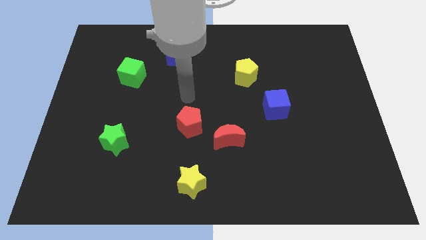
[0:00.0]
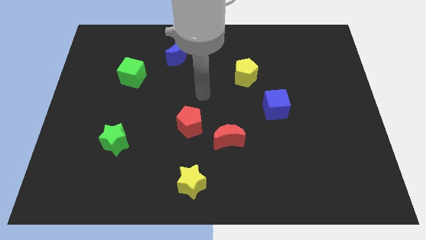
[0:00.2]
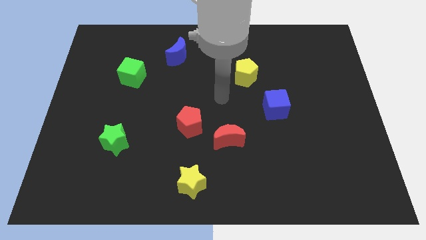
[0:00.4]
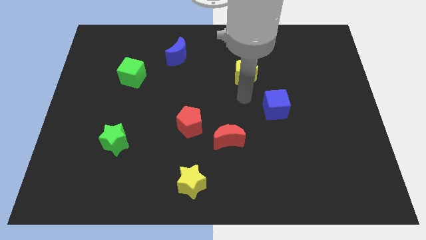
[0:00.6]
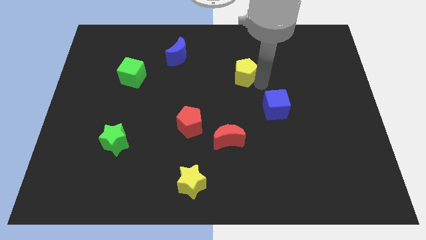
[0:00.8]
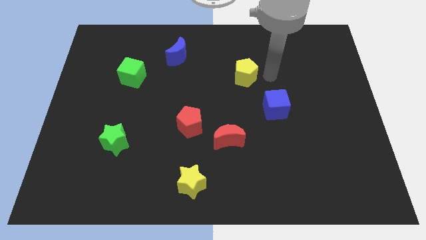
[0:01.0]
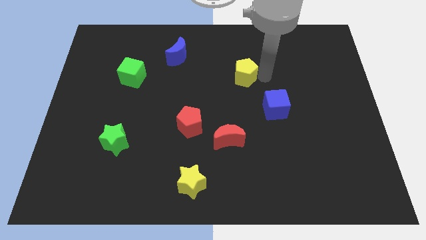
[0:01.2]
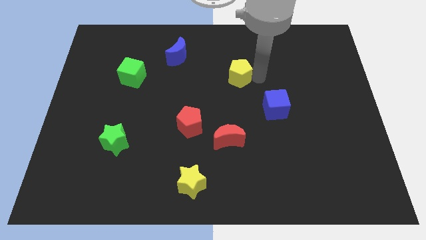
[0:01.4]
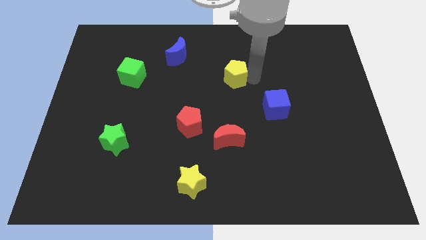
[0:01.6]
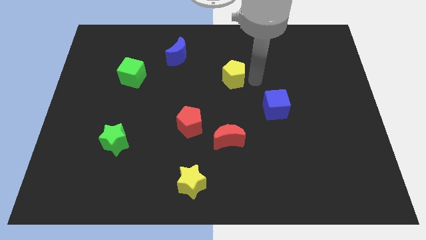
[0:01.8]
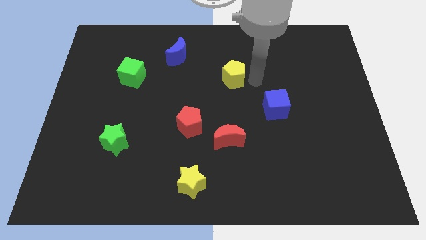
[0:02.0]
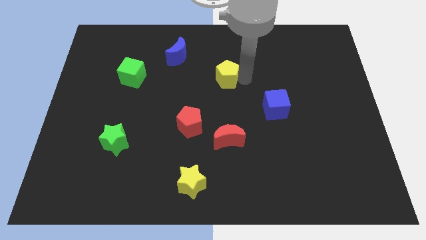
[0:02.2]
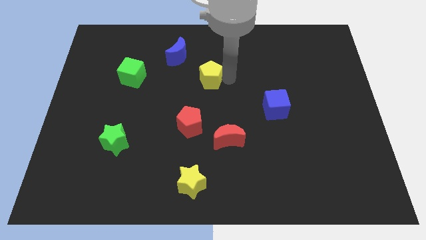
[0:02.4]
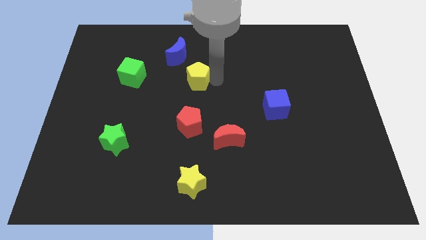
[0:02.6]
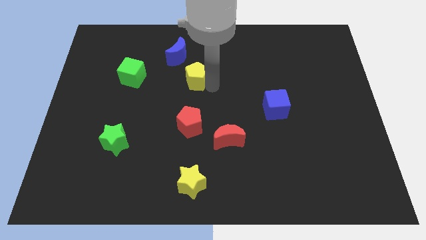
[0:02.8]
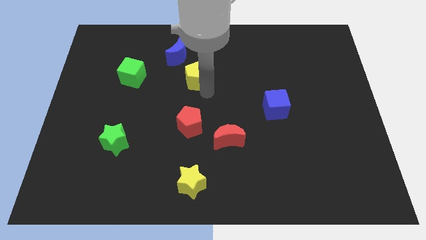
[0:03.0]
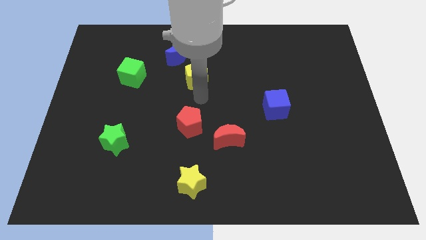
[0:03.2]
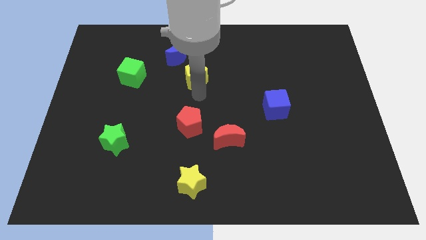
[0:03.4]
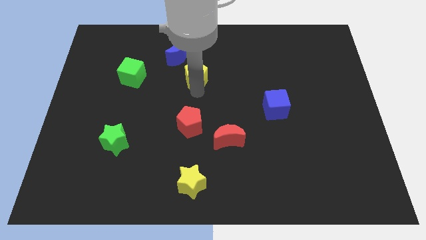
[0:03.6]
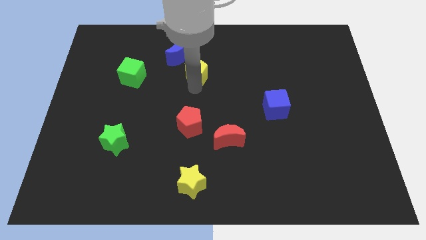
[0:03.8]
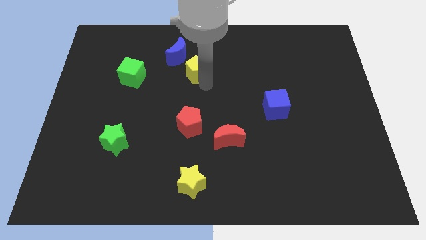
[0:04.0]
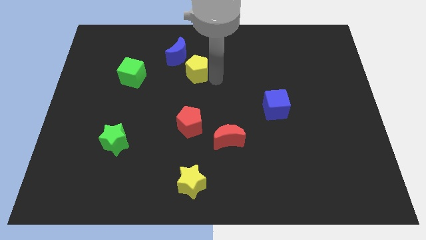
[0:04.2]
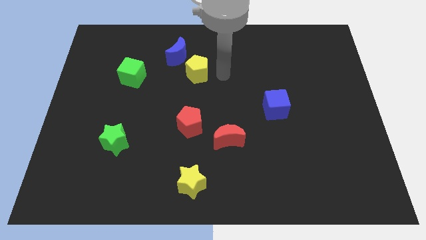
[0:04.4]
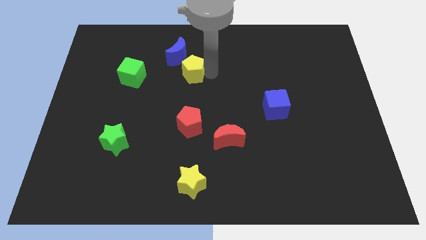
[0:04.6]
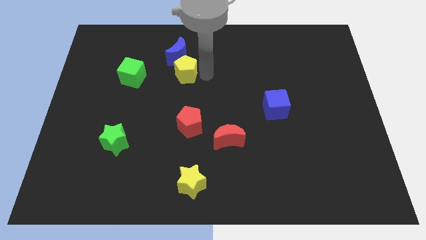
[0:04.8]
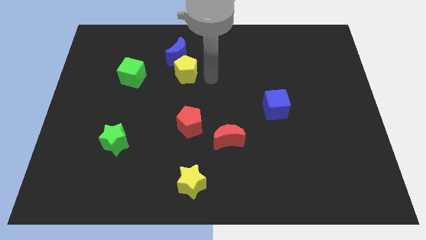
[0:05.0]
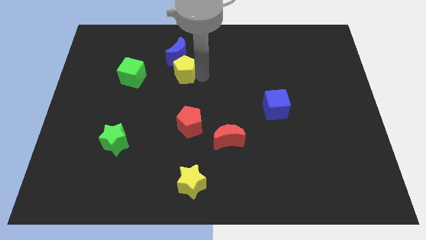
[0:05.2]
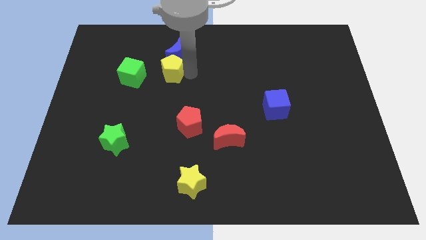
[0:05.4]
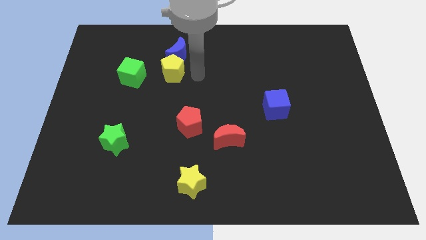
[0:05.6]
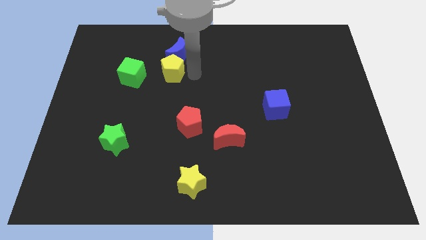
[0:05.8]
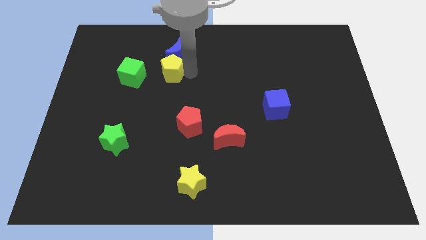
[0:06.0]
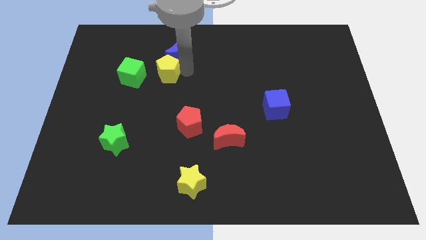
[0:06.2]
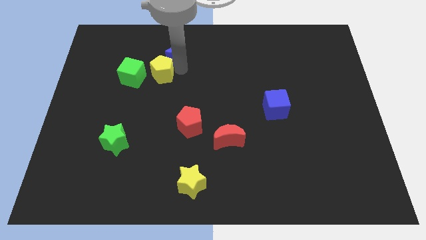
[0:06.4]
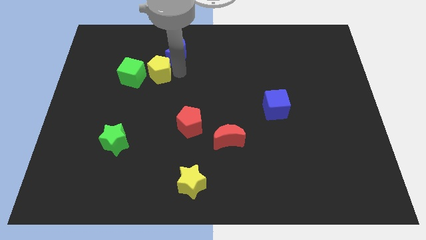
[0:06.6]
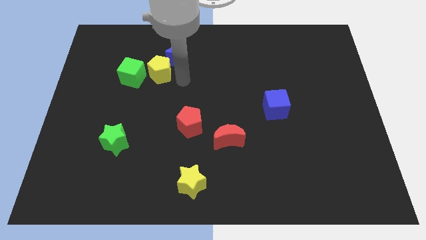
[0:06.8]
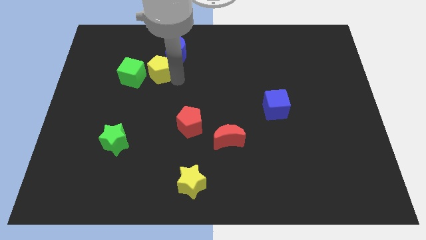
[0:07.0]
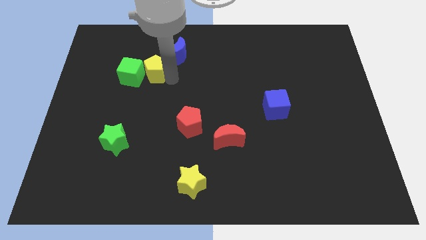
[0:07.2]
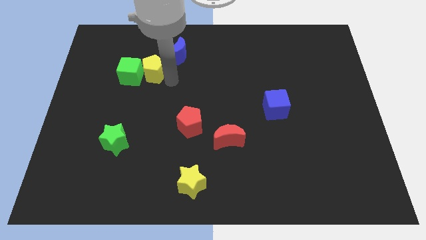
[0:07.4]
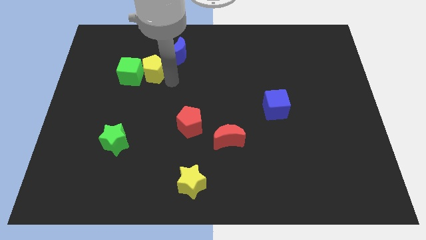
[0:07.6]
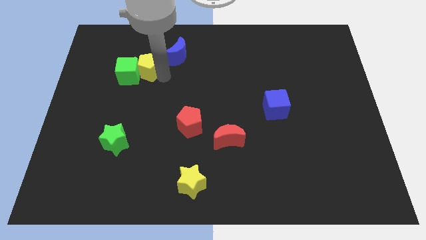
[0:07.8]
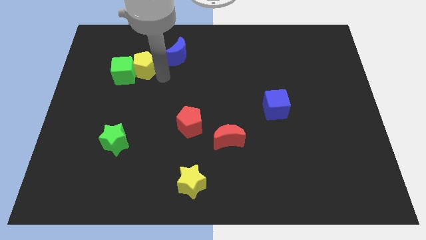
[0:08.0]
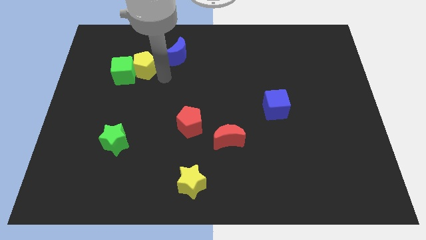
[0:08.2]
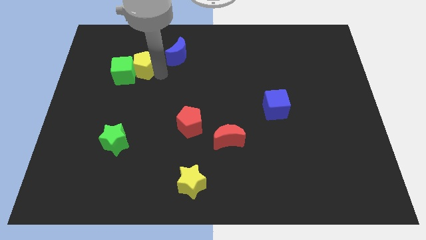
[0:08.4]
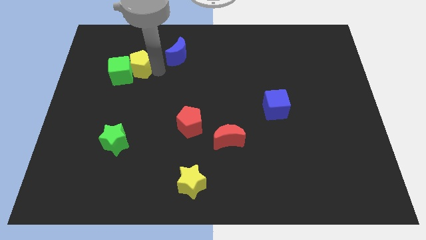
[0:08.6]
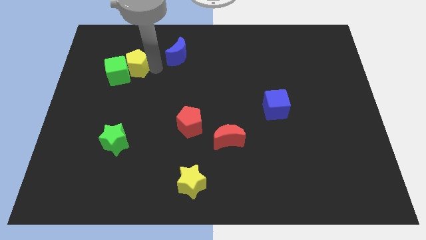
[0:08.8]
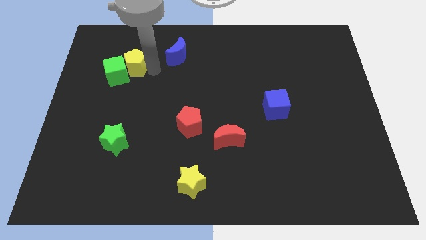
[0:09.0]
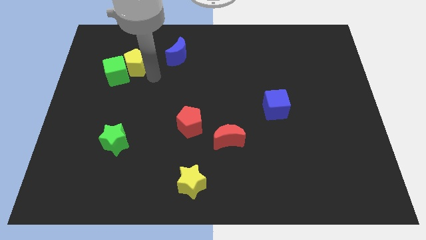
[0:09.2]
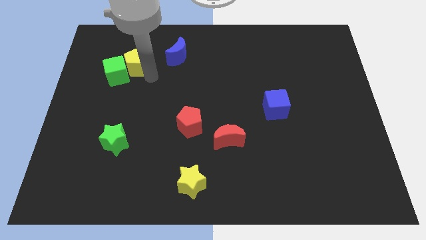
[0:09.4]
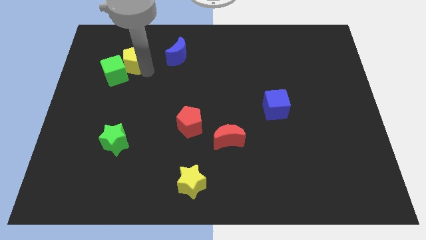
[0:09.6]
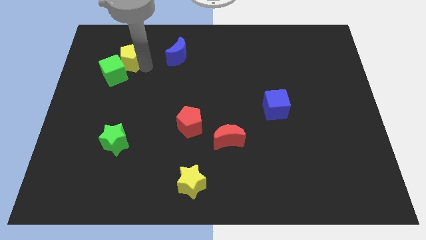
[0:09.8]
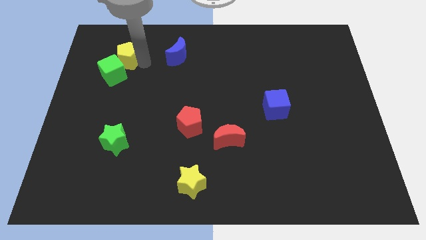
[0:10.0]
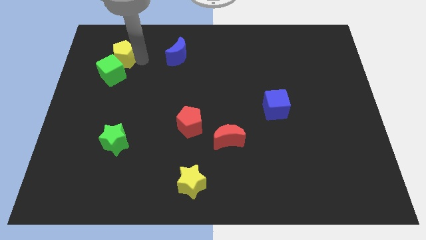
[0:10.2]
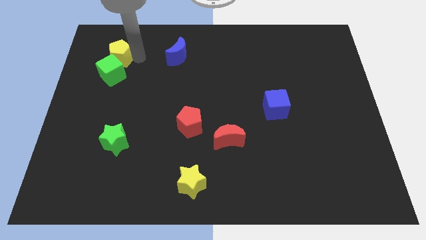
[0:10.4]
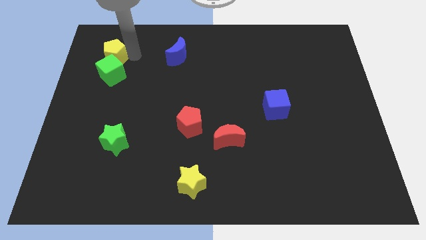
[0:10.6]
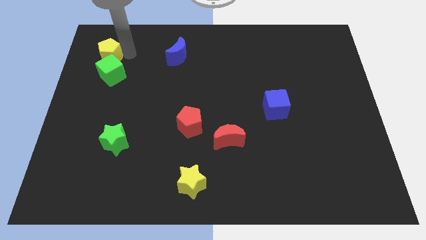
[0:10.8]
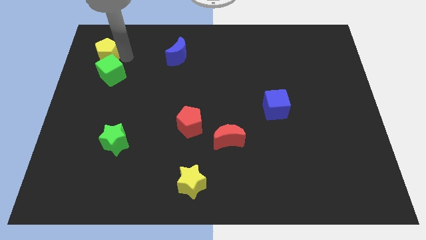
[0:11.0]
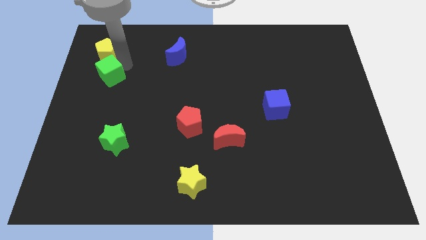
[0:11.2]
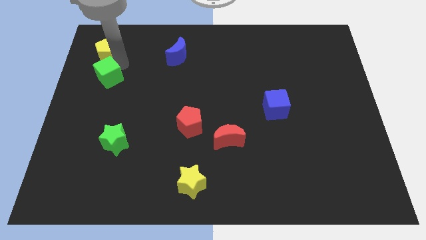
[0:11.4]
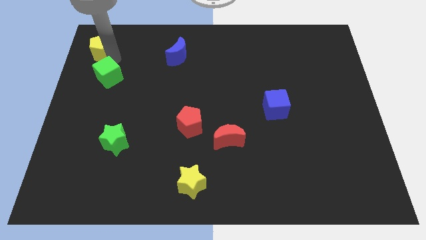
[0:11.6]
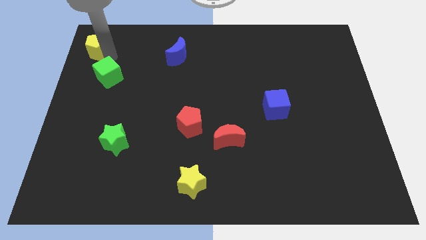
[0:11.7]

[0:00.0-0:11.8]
slide the yellow pentagon to the top left corner

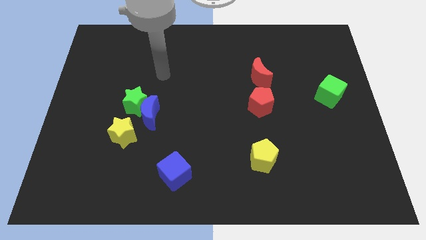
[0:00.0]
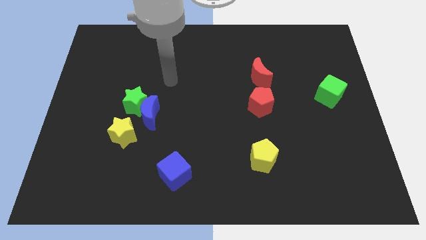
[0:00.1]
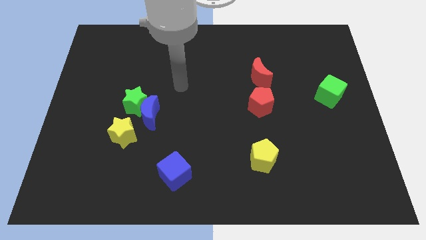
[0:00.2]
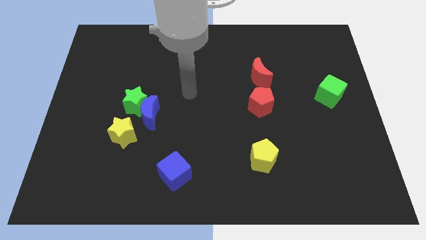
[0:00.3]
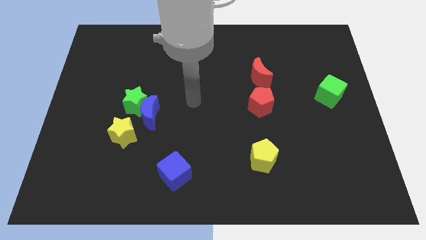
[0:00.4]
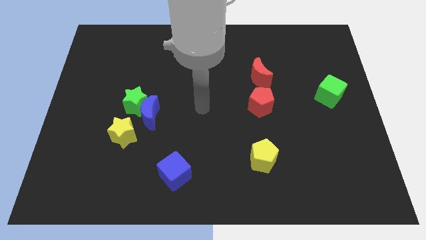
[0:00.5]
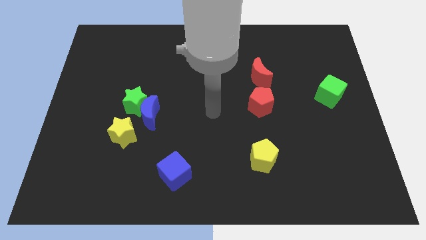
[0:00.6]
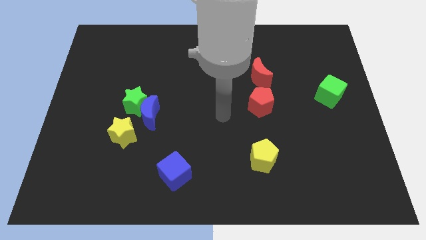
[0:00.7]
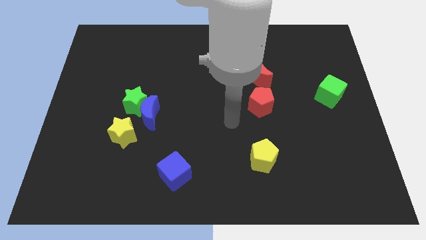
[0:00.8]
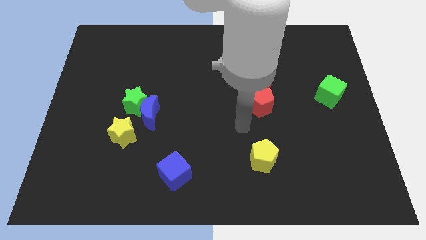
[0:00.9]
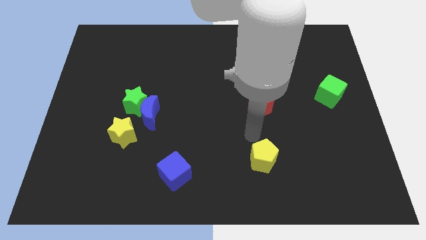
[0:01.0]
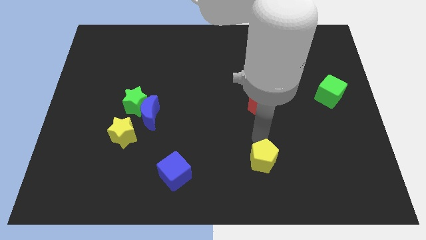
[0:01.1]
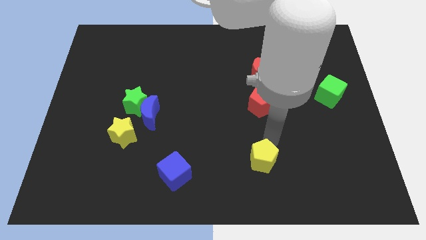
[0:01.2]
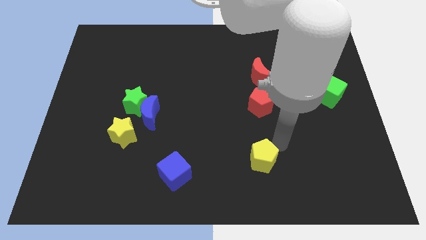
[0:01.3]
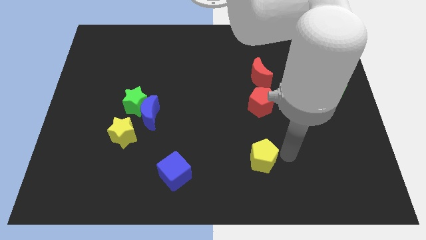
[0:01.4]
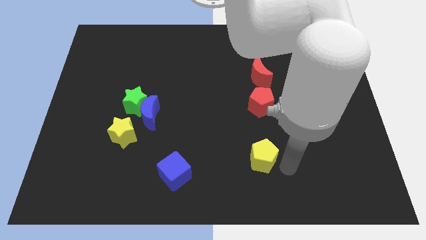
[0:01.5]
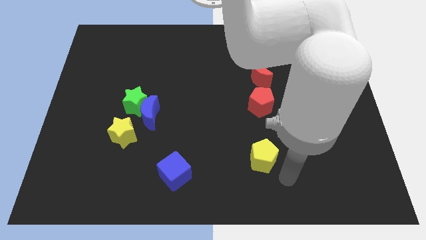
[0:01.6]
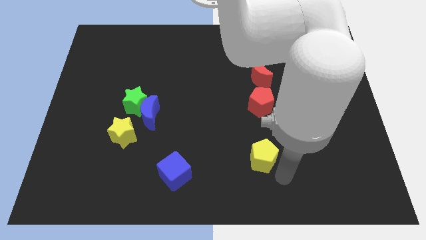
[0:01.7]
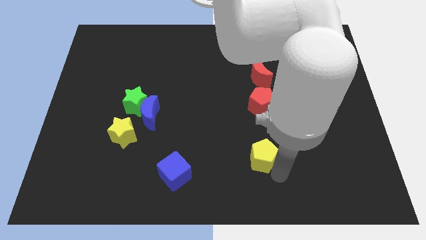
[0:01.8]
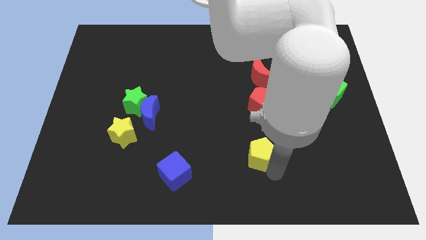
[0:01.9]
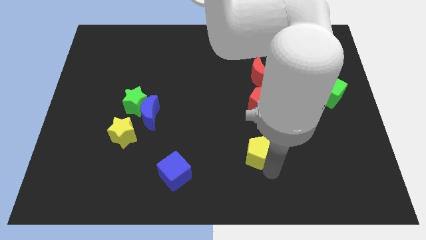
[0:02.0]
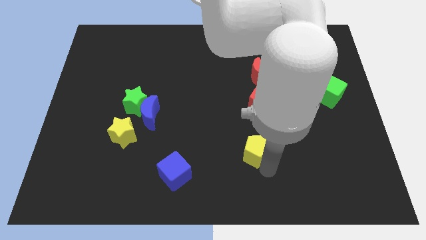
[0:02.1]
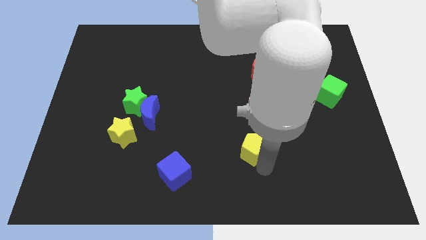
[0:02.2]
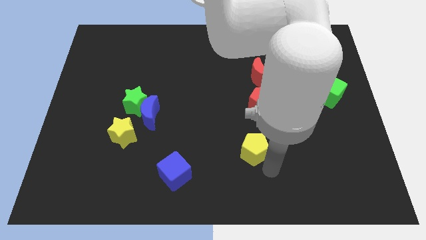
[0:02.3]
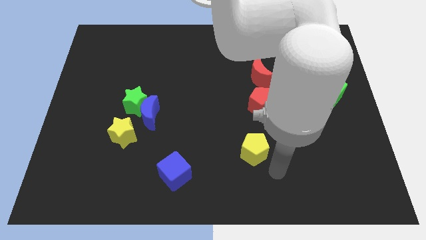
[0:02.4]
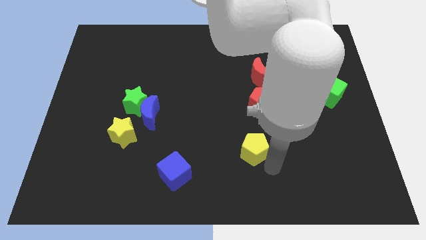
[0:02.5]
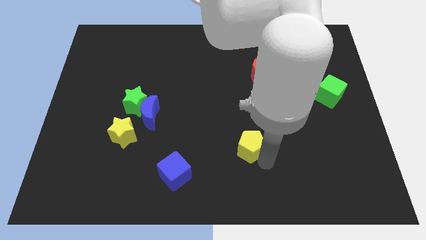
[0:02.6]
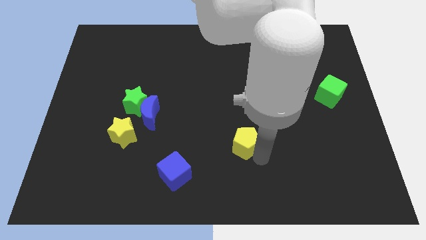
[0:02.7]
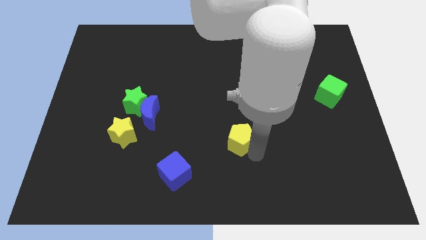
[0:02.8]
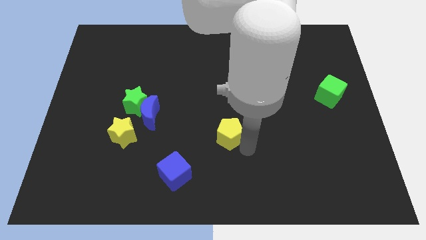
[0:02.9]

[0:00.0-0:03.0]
slide the yellow pentagon to the middle of the board
